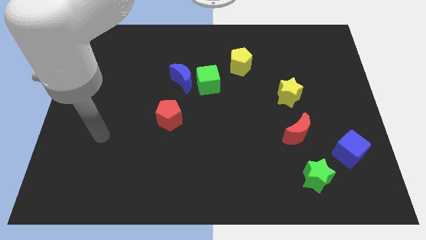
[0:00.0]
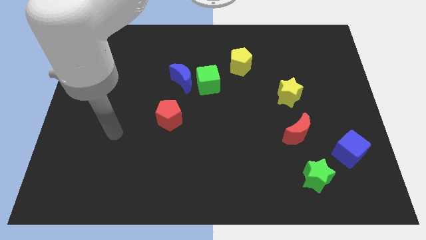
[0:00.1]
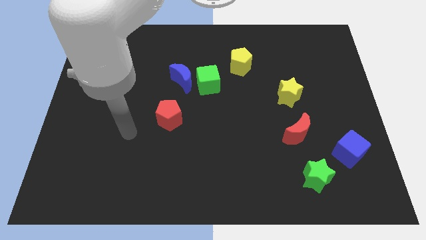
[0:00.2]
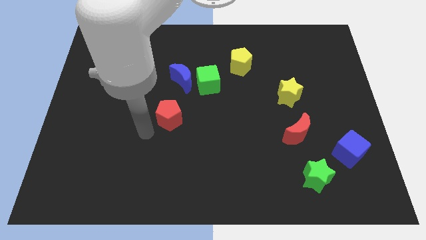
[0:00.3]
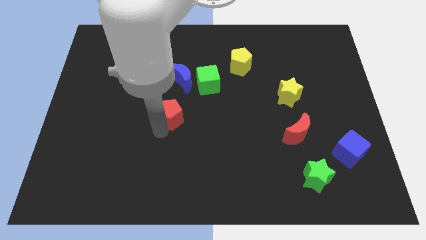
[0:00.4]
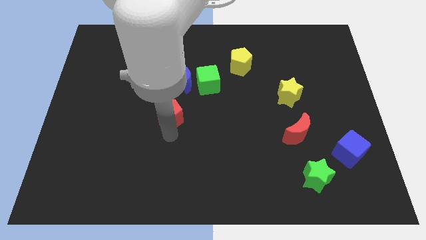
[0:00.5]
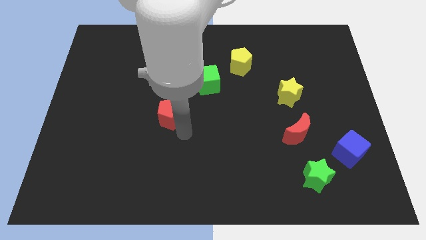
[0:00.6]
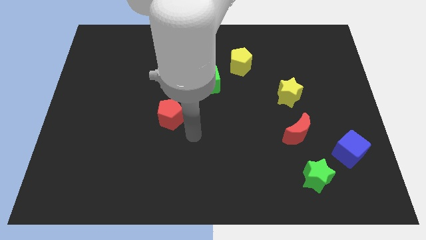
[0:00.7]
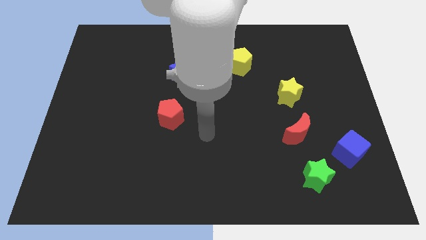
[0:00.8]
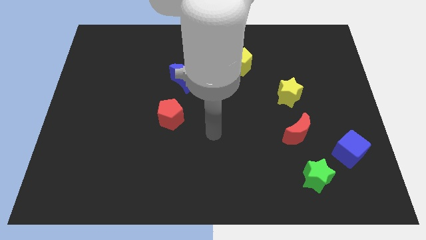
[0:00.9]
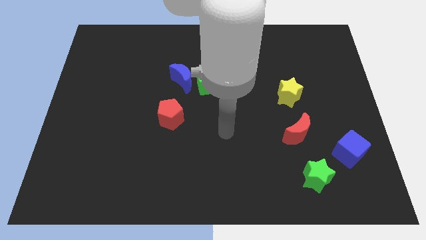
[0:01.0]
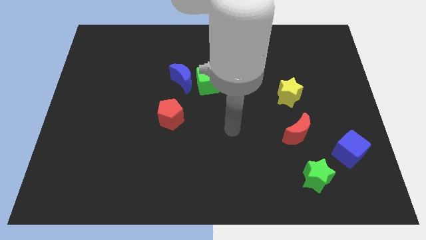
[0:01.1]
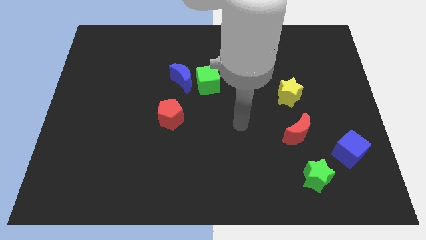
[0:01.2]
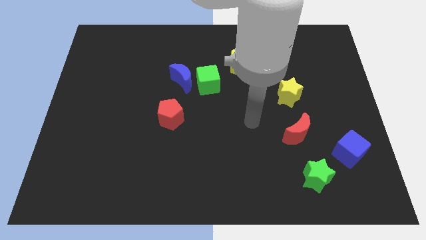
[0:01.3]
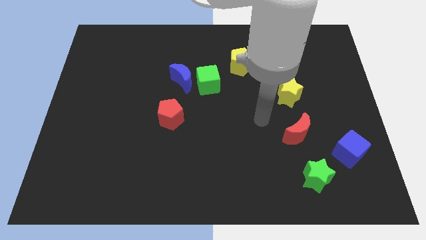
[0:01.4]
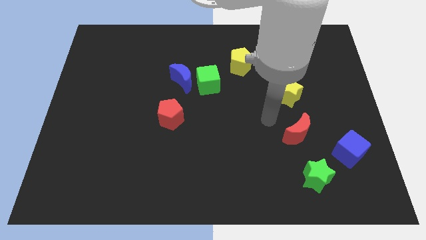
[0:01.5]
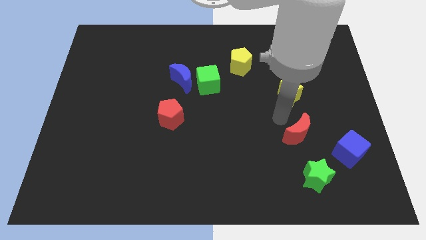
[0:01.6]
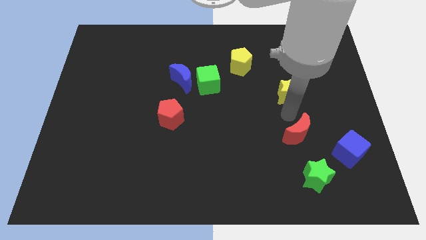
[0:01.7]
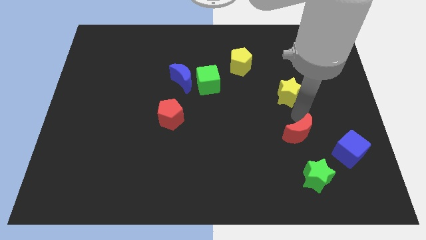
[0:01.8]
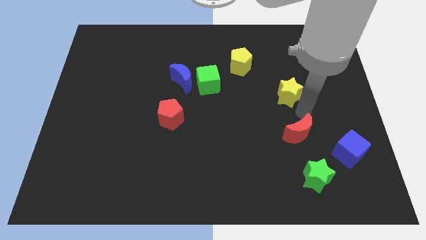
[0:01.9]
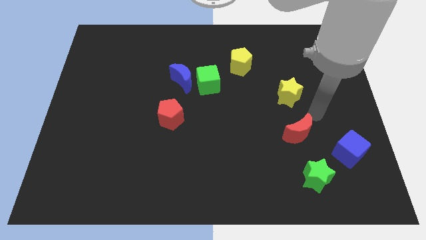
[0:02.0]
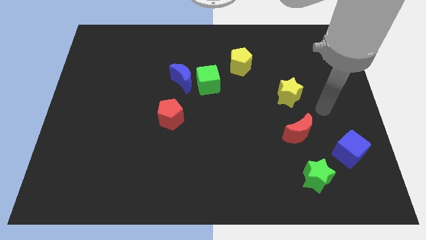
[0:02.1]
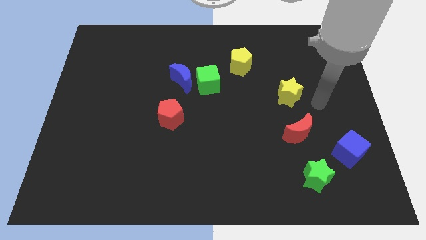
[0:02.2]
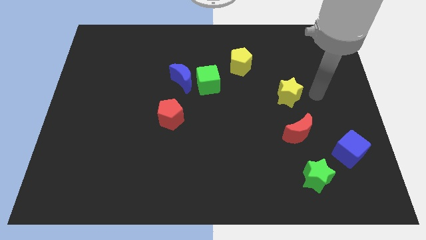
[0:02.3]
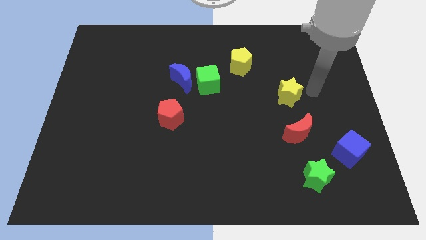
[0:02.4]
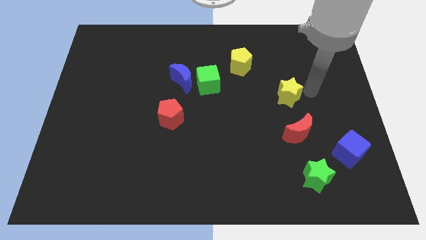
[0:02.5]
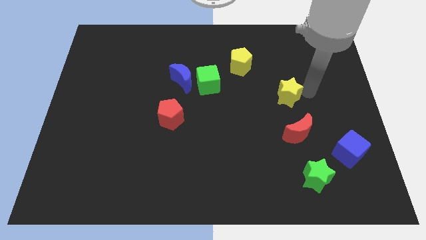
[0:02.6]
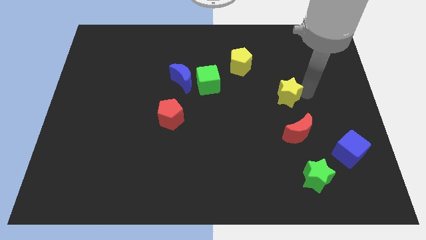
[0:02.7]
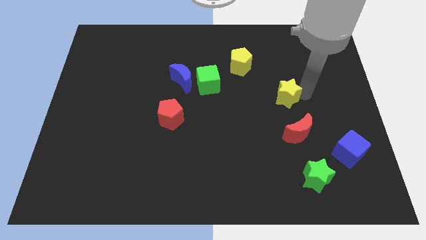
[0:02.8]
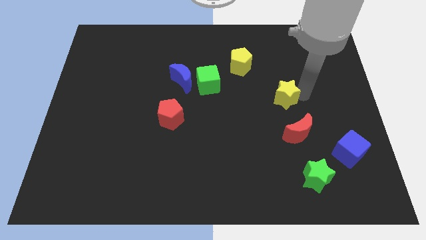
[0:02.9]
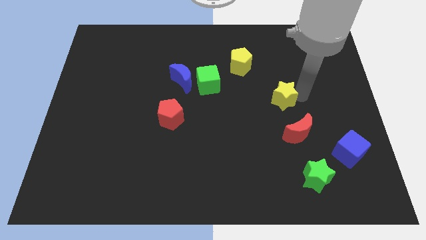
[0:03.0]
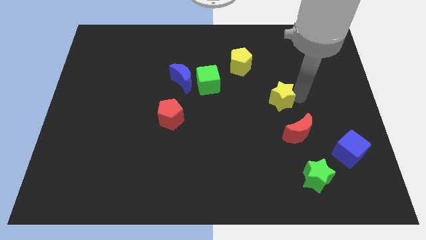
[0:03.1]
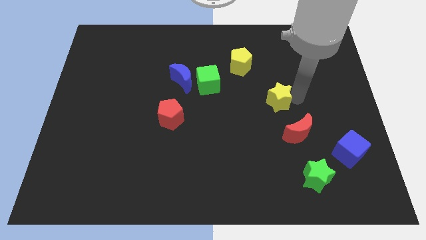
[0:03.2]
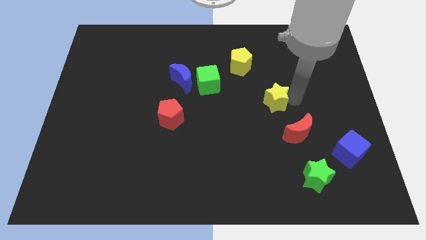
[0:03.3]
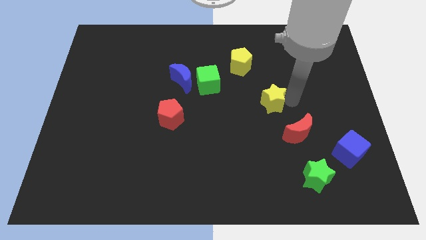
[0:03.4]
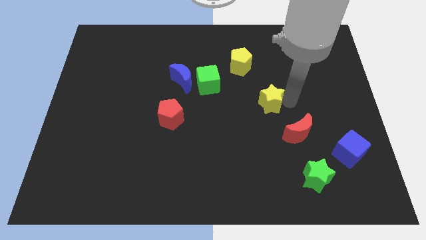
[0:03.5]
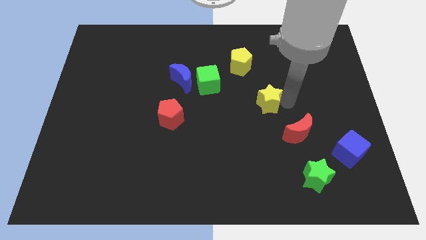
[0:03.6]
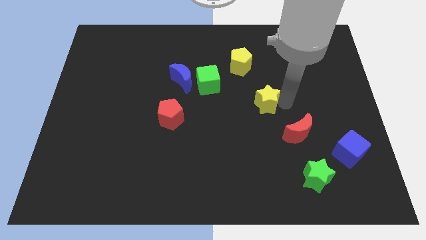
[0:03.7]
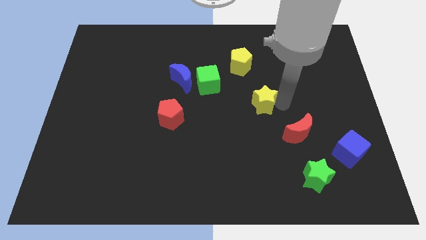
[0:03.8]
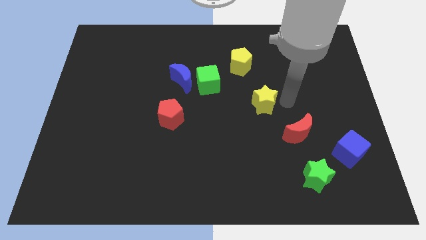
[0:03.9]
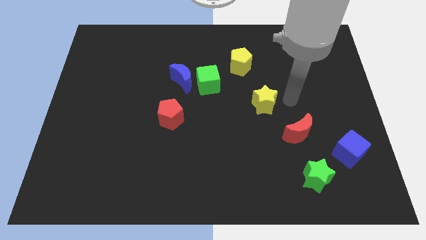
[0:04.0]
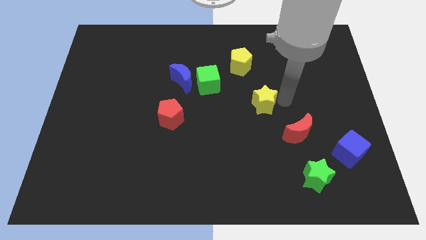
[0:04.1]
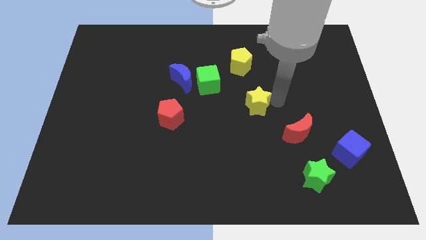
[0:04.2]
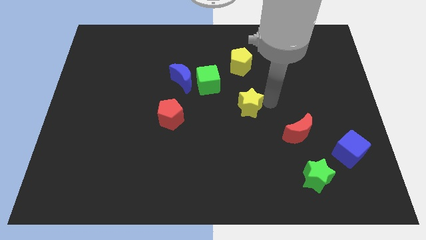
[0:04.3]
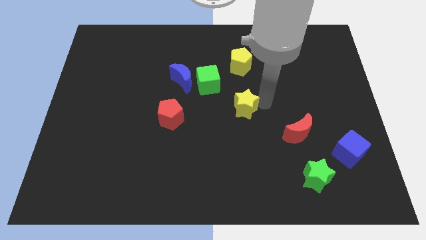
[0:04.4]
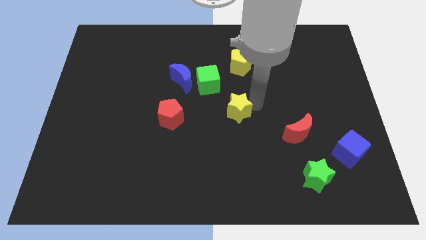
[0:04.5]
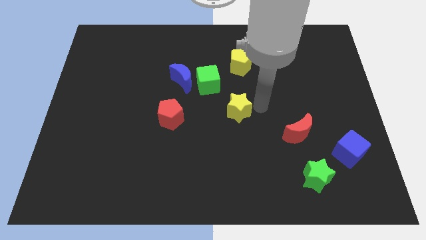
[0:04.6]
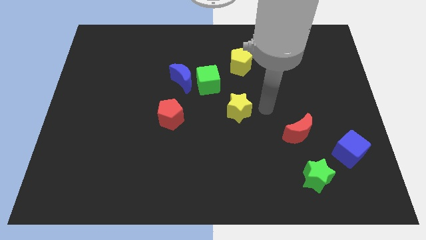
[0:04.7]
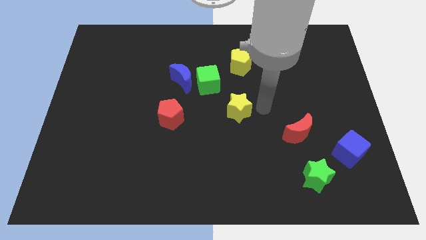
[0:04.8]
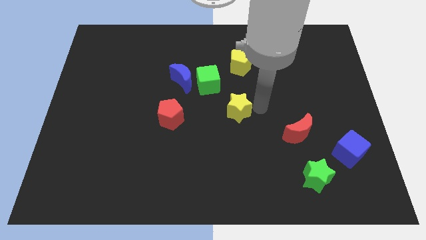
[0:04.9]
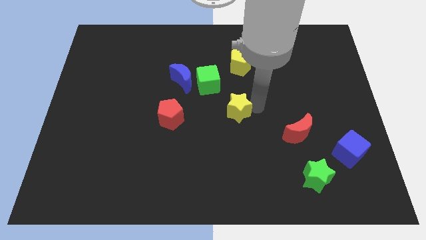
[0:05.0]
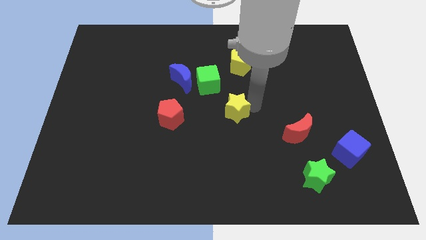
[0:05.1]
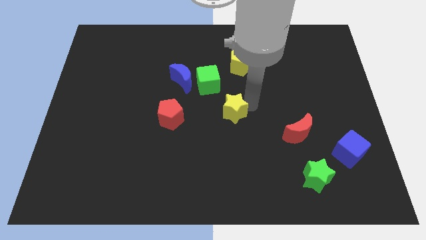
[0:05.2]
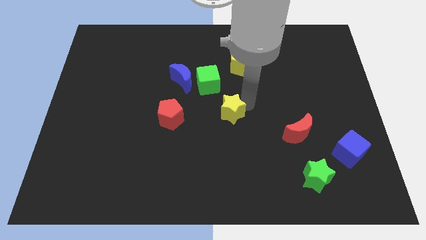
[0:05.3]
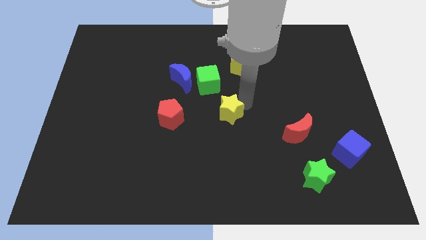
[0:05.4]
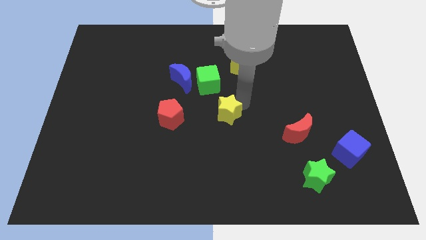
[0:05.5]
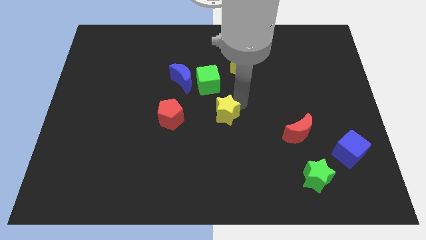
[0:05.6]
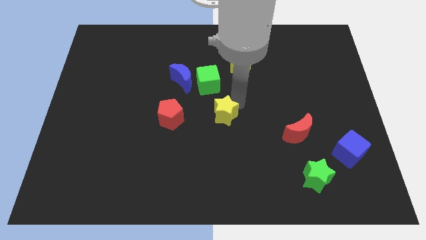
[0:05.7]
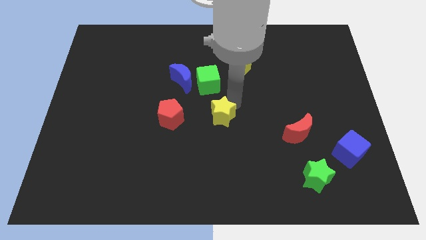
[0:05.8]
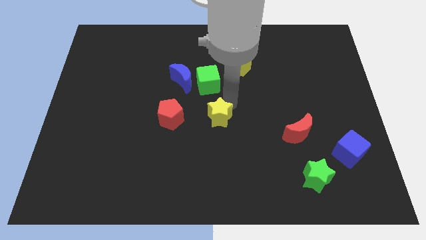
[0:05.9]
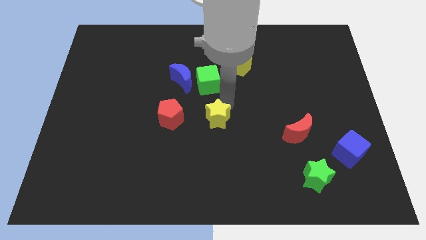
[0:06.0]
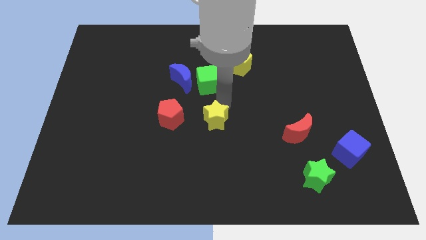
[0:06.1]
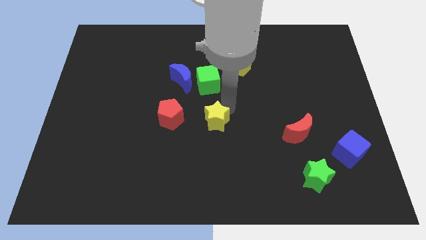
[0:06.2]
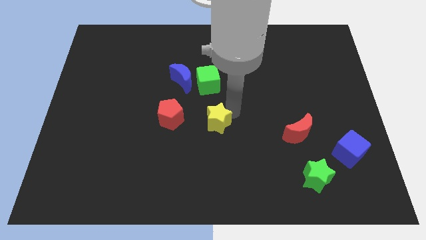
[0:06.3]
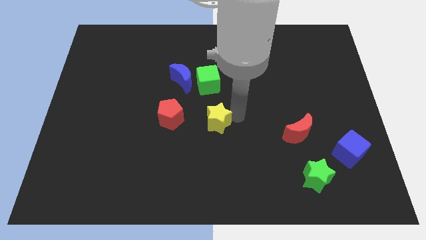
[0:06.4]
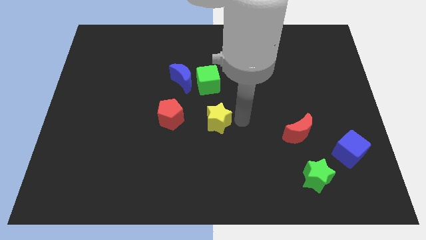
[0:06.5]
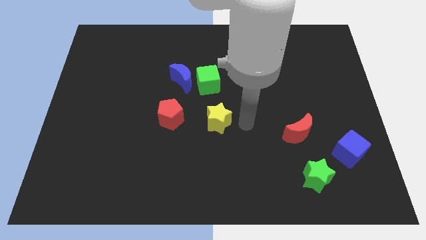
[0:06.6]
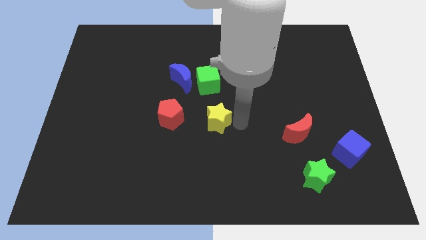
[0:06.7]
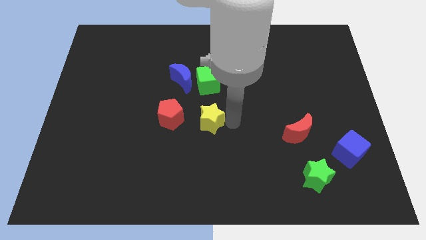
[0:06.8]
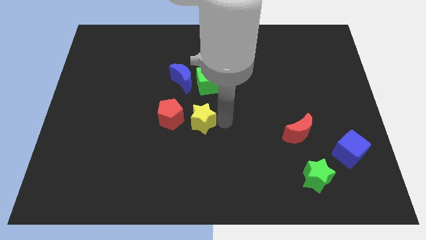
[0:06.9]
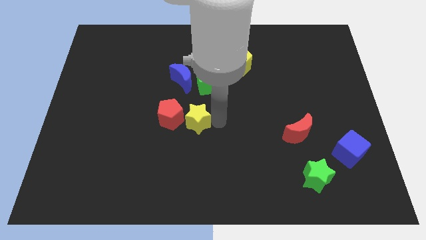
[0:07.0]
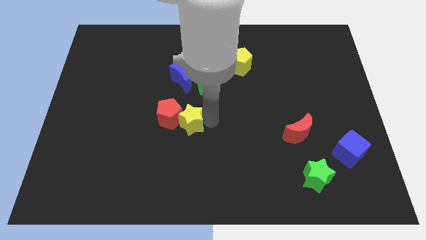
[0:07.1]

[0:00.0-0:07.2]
push the yellow star next to the red pentagon

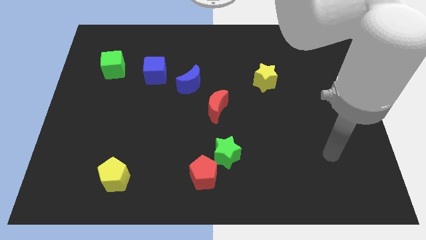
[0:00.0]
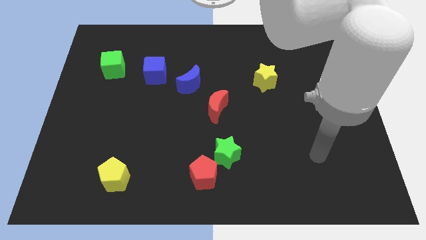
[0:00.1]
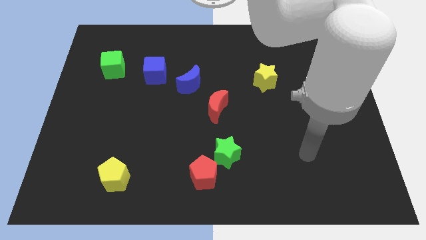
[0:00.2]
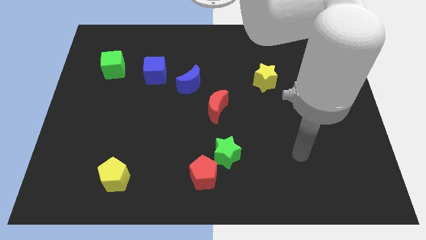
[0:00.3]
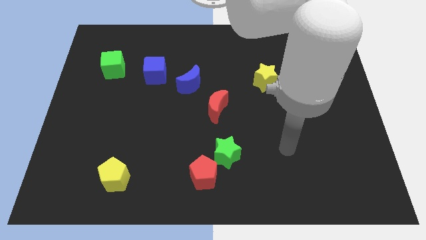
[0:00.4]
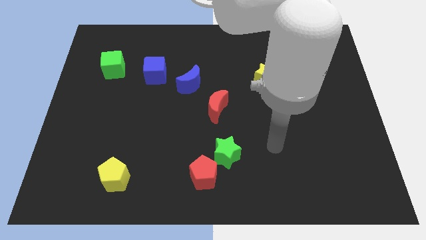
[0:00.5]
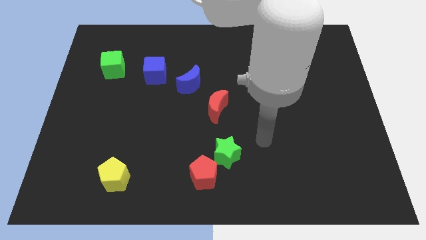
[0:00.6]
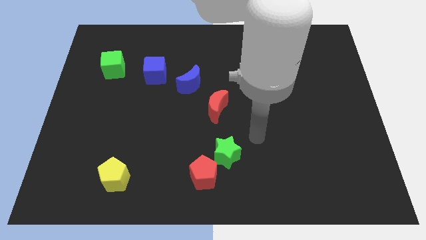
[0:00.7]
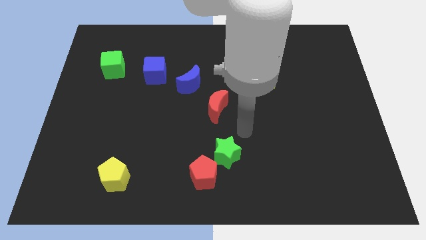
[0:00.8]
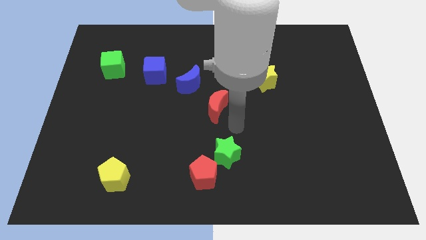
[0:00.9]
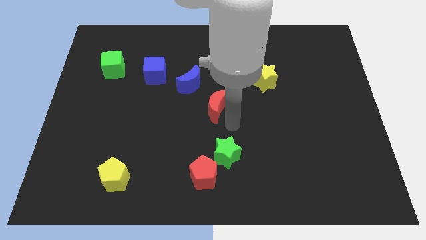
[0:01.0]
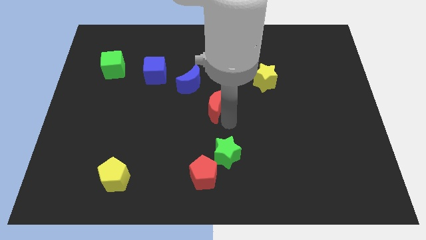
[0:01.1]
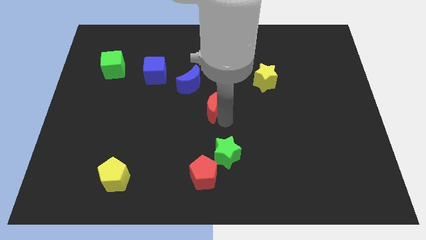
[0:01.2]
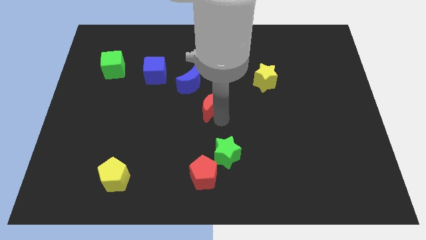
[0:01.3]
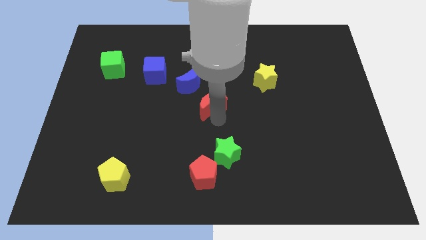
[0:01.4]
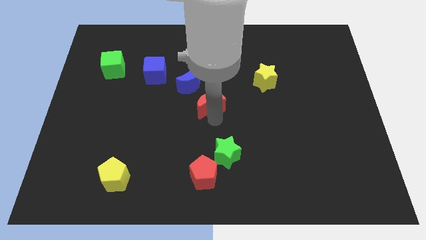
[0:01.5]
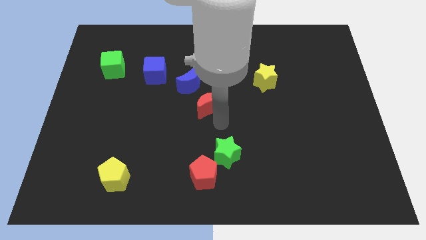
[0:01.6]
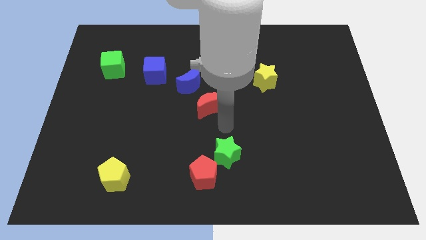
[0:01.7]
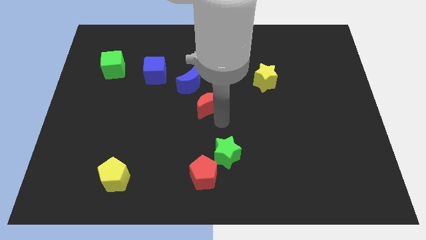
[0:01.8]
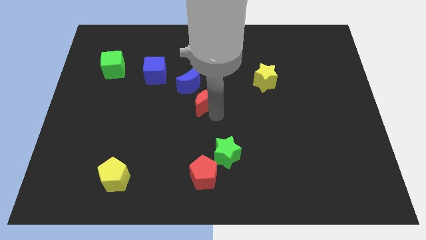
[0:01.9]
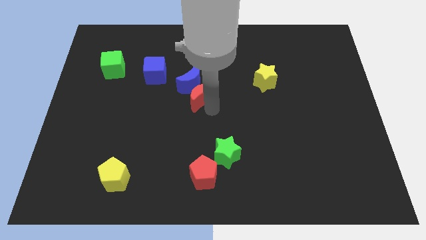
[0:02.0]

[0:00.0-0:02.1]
move the red moon to the blue moon
